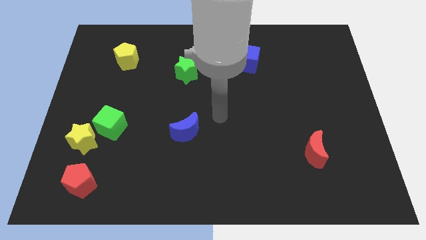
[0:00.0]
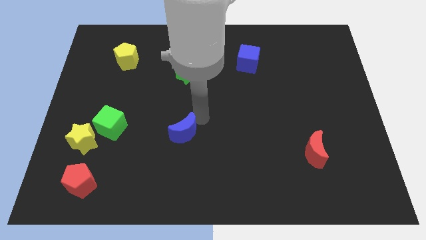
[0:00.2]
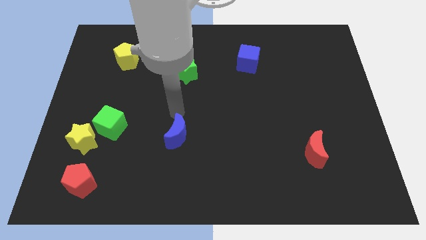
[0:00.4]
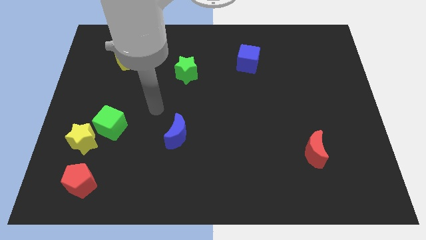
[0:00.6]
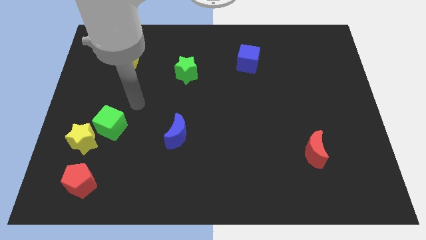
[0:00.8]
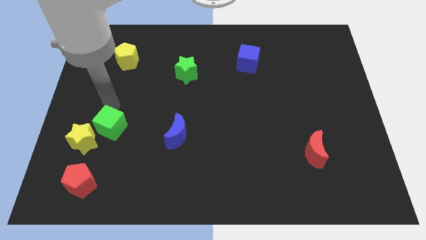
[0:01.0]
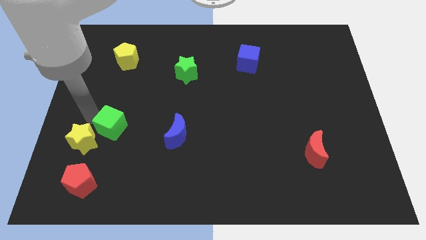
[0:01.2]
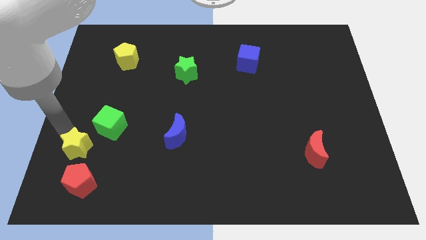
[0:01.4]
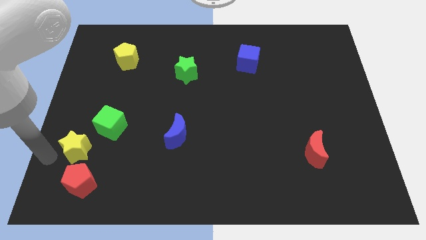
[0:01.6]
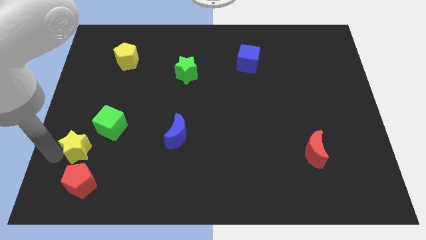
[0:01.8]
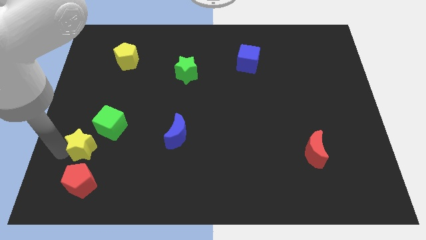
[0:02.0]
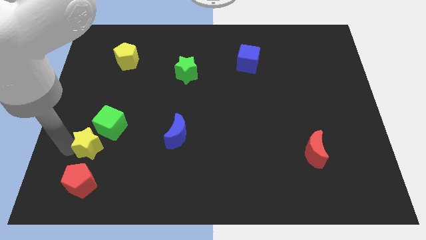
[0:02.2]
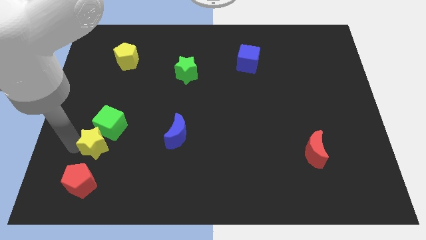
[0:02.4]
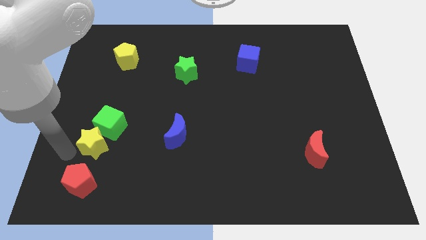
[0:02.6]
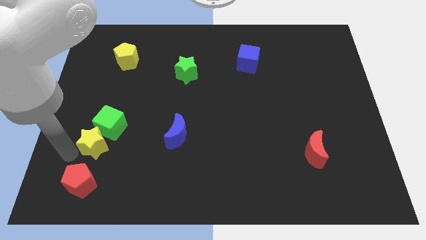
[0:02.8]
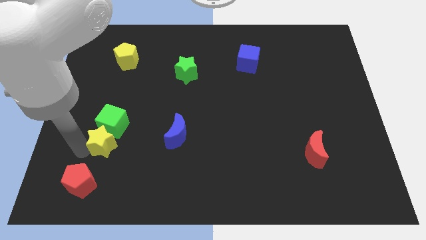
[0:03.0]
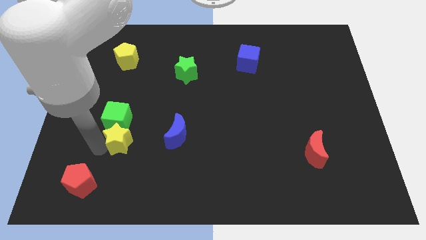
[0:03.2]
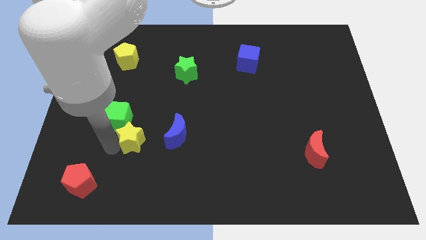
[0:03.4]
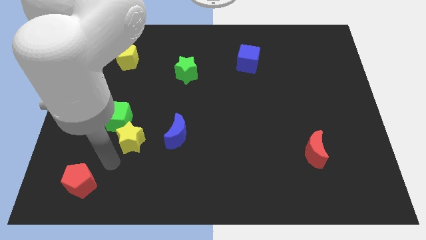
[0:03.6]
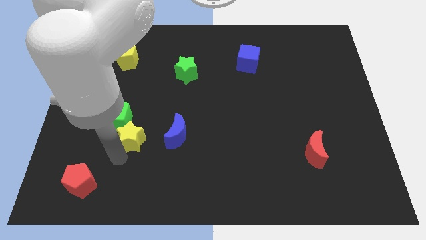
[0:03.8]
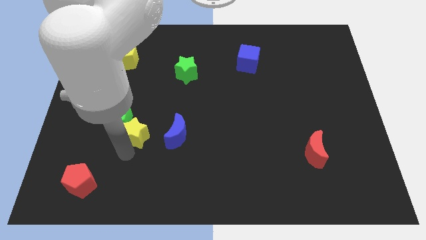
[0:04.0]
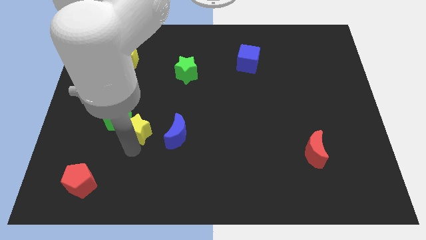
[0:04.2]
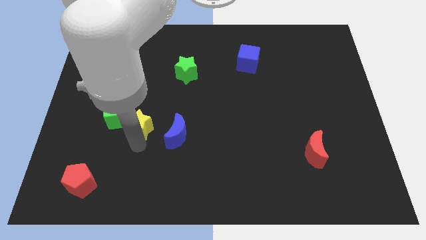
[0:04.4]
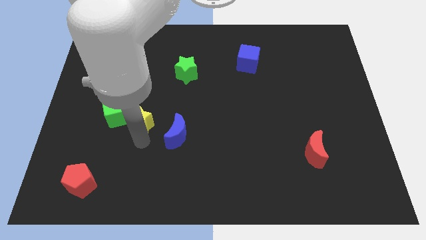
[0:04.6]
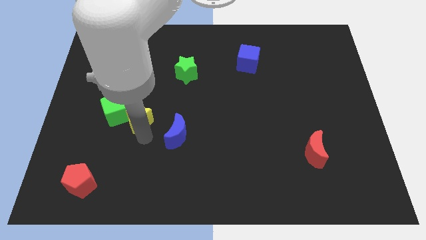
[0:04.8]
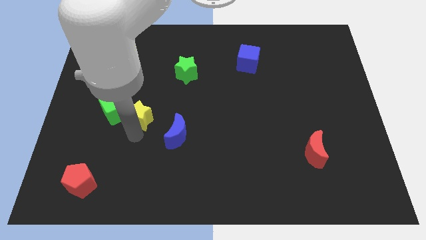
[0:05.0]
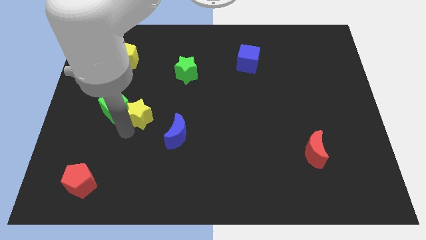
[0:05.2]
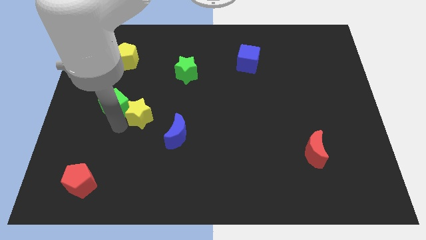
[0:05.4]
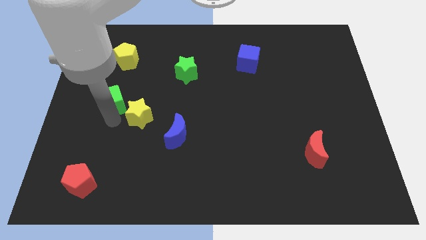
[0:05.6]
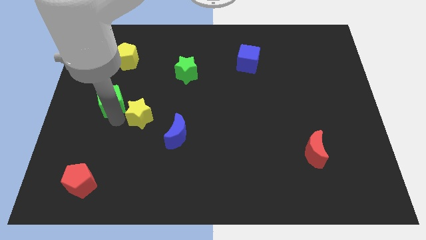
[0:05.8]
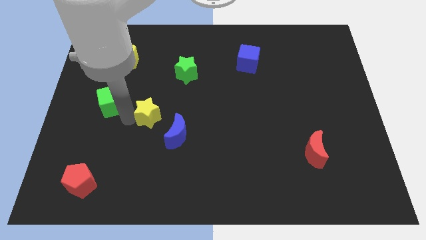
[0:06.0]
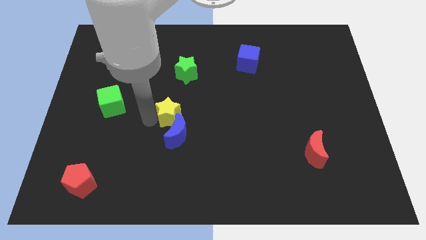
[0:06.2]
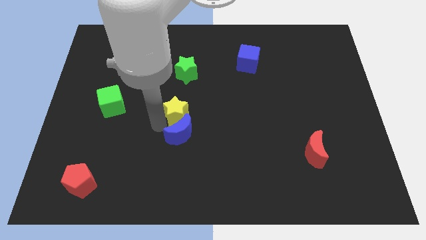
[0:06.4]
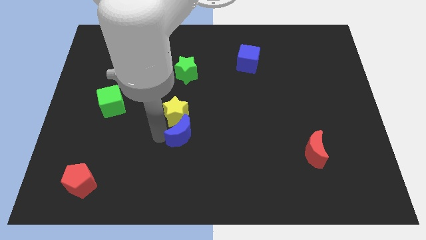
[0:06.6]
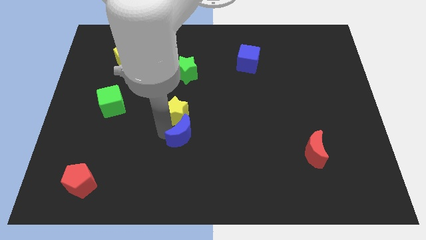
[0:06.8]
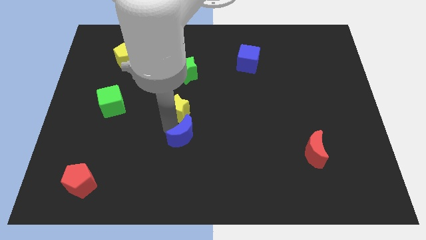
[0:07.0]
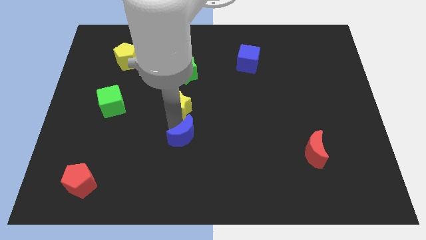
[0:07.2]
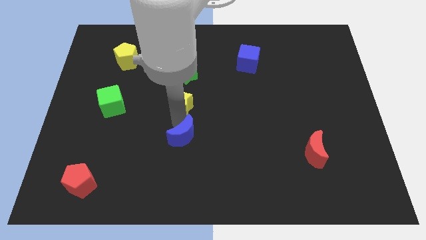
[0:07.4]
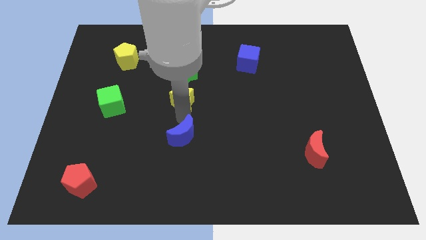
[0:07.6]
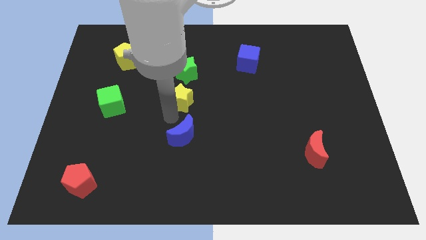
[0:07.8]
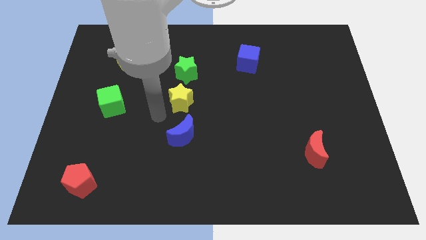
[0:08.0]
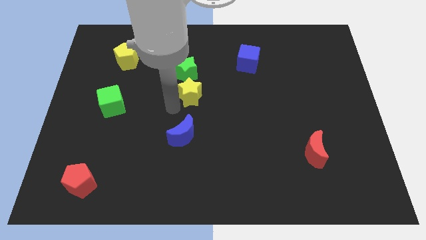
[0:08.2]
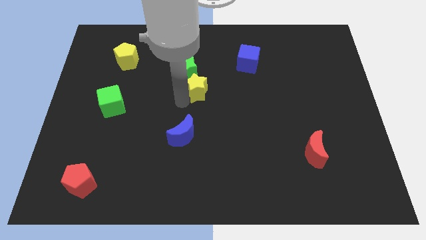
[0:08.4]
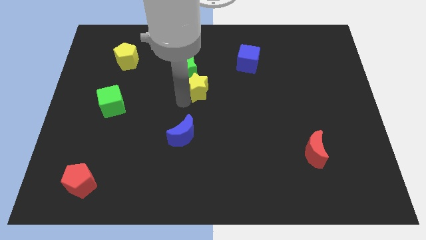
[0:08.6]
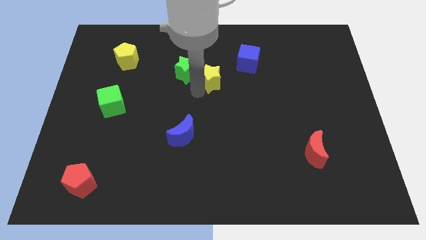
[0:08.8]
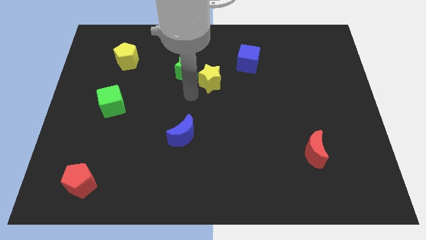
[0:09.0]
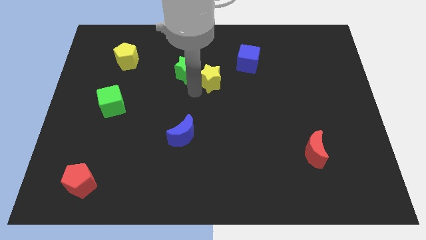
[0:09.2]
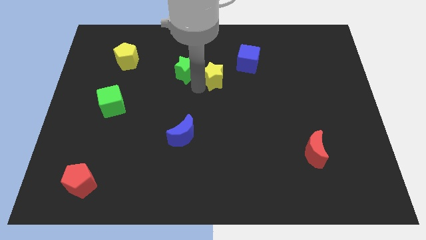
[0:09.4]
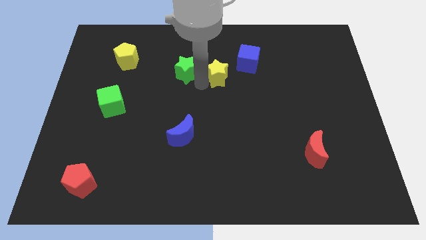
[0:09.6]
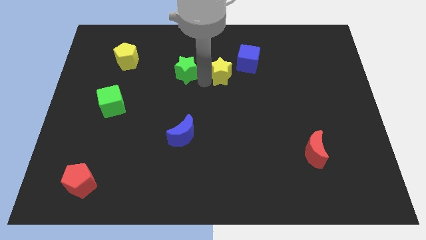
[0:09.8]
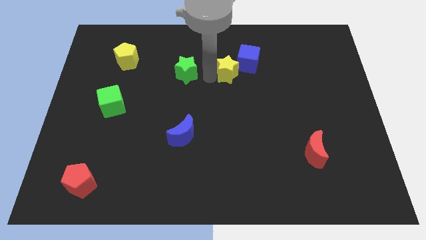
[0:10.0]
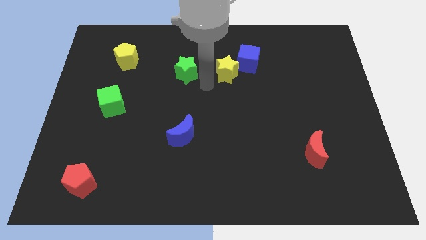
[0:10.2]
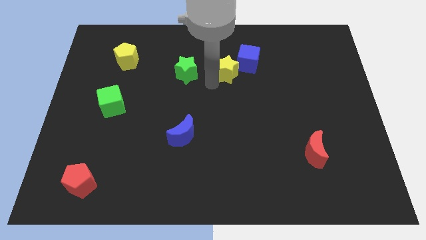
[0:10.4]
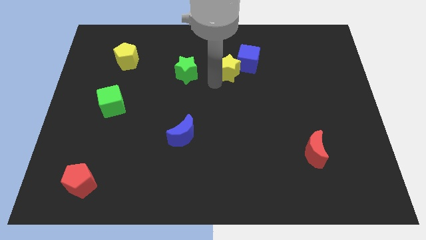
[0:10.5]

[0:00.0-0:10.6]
slide the yellow star to the blue cube
